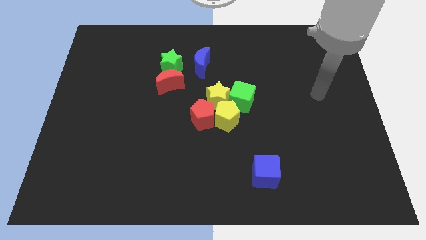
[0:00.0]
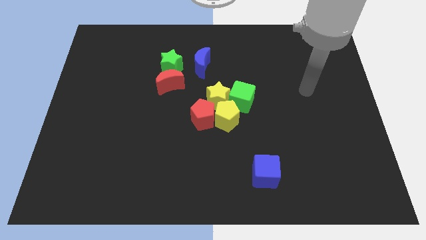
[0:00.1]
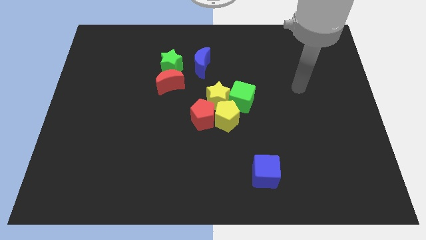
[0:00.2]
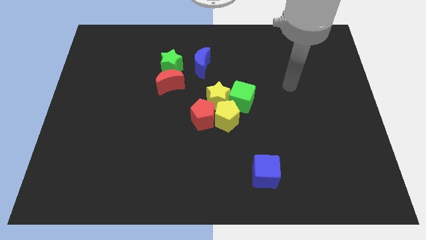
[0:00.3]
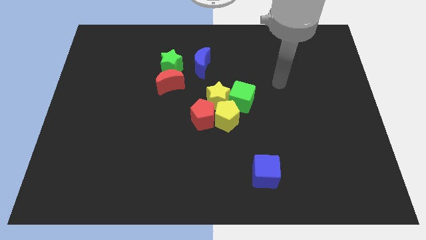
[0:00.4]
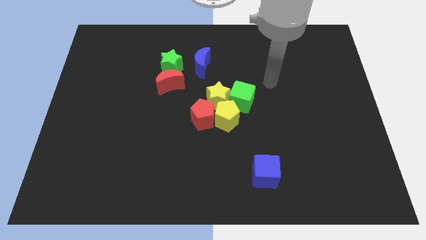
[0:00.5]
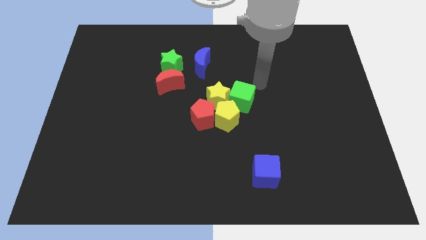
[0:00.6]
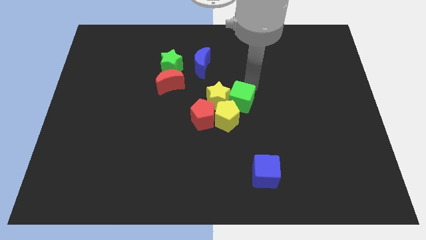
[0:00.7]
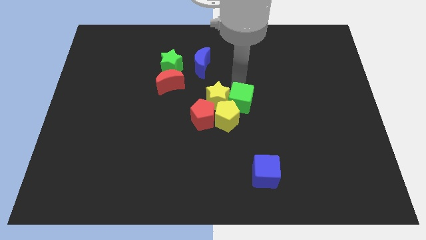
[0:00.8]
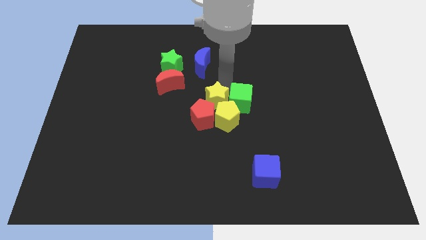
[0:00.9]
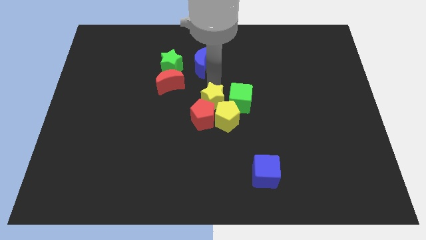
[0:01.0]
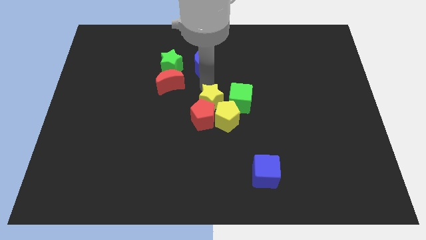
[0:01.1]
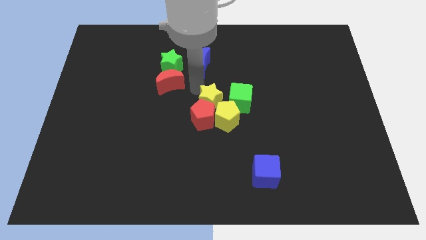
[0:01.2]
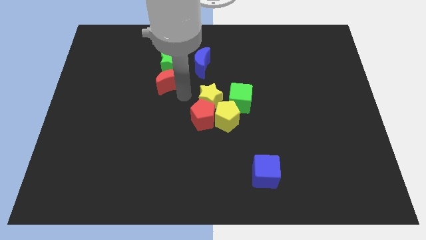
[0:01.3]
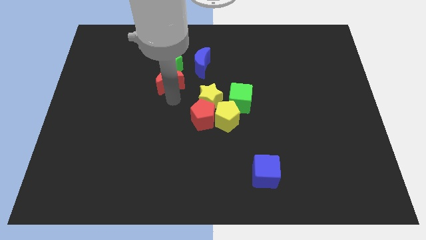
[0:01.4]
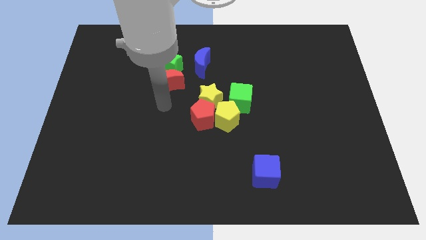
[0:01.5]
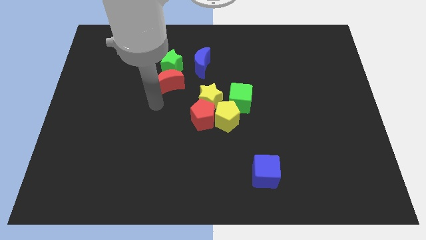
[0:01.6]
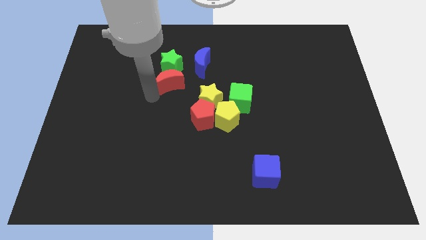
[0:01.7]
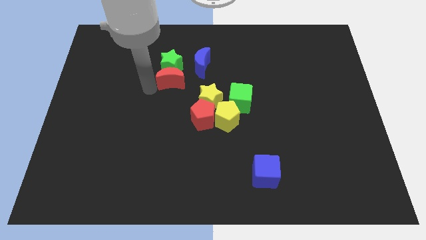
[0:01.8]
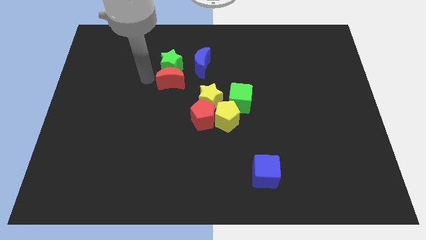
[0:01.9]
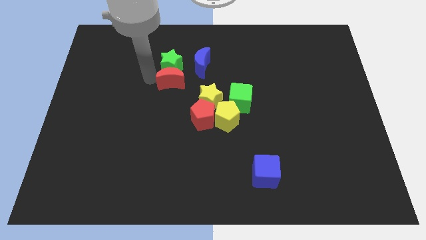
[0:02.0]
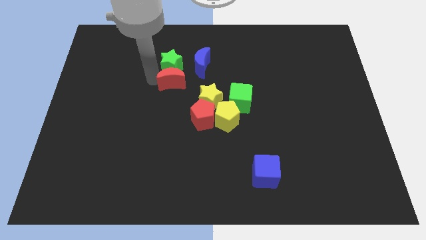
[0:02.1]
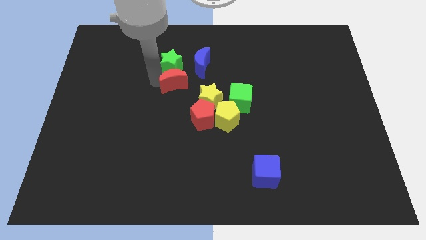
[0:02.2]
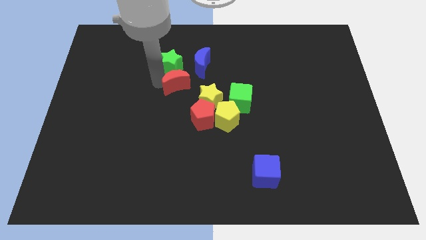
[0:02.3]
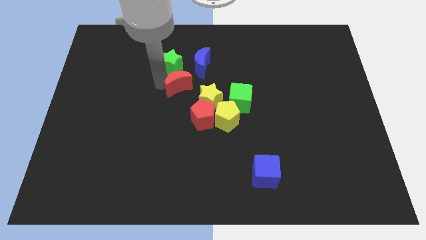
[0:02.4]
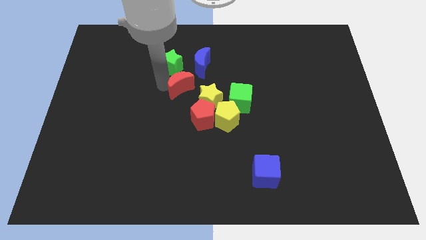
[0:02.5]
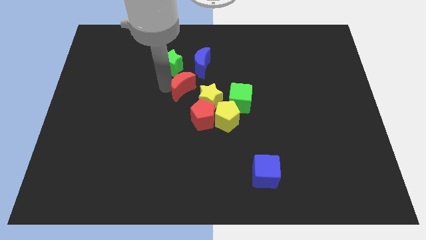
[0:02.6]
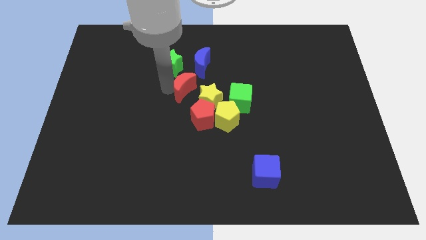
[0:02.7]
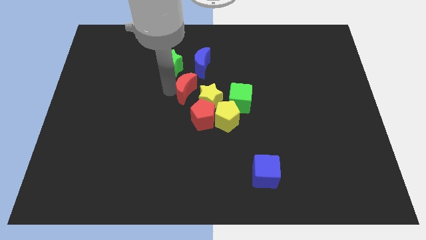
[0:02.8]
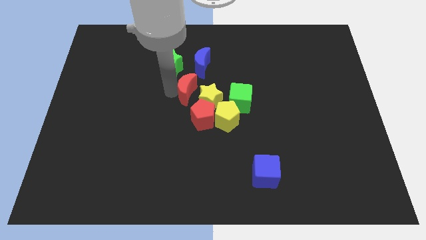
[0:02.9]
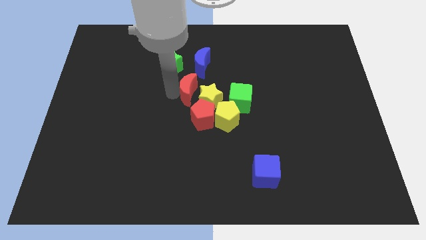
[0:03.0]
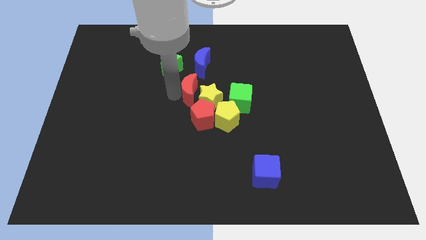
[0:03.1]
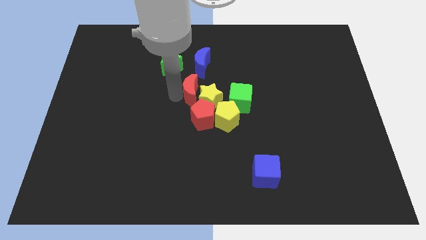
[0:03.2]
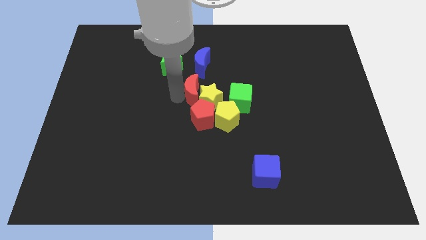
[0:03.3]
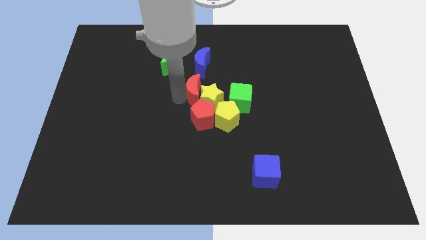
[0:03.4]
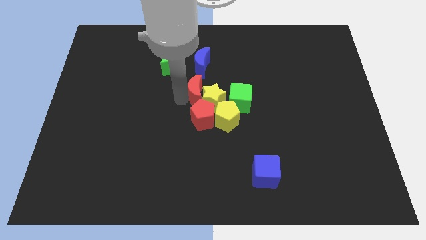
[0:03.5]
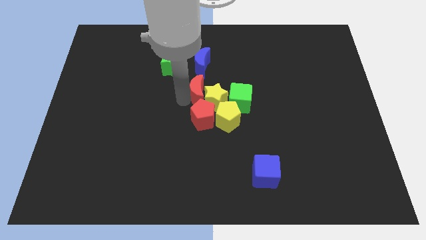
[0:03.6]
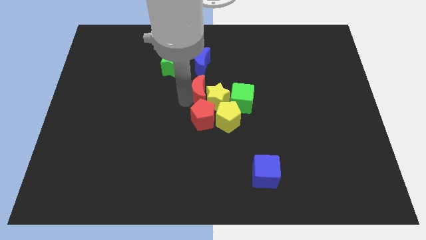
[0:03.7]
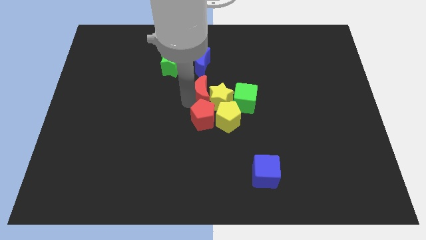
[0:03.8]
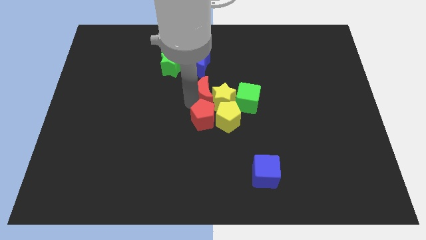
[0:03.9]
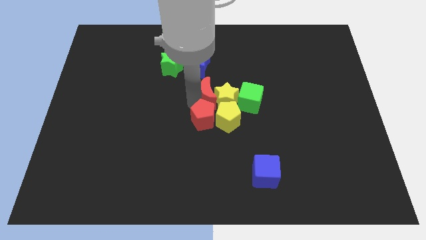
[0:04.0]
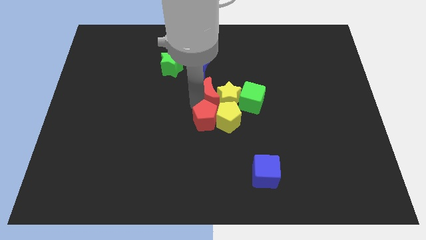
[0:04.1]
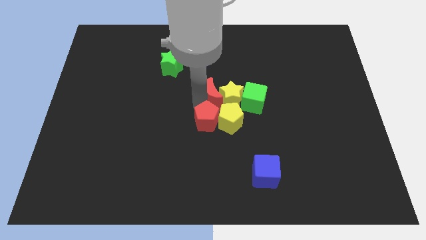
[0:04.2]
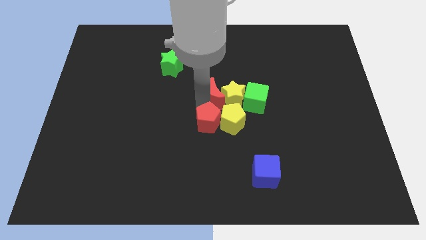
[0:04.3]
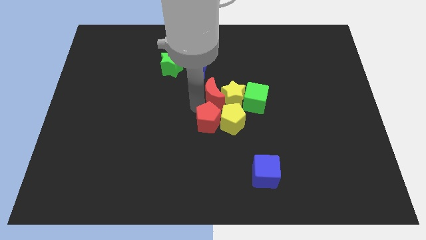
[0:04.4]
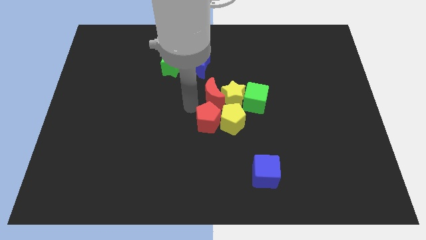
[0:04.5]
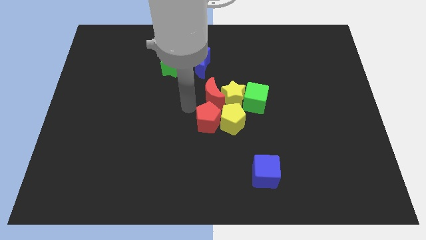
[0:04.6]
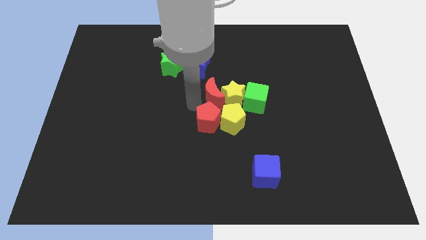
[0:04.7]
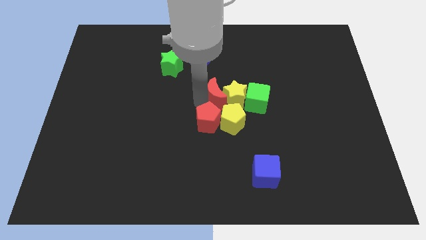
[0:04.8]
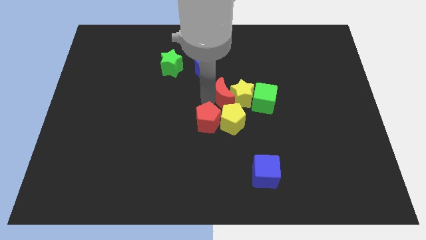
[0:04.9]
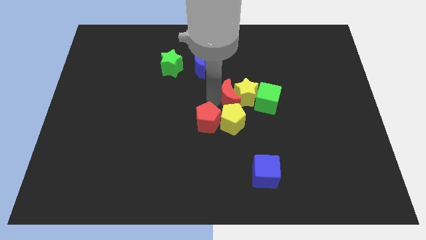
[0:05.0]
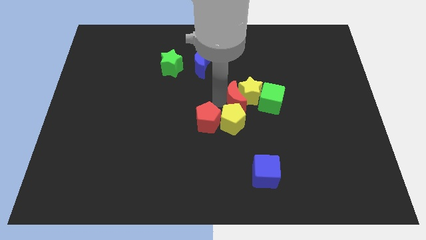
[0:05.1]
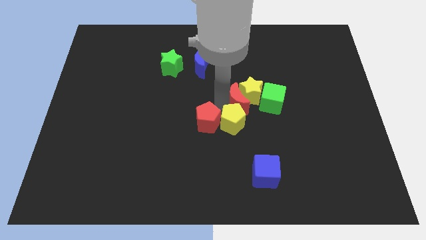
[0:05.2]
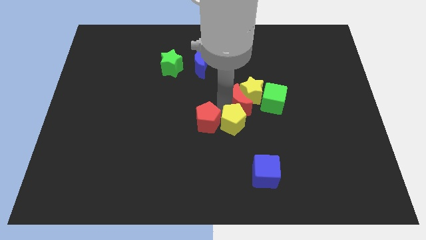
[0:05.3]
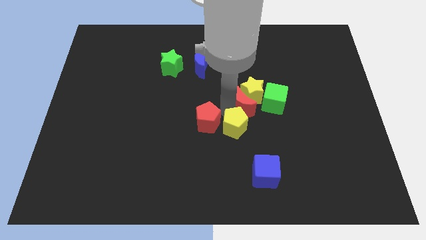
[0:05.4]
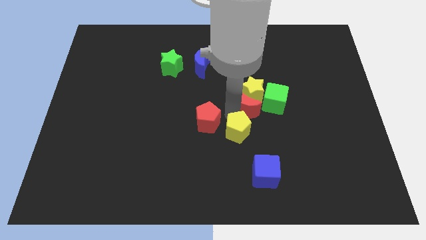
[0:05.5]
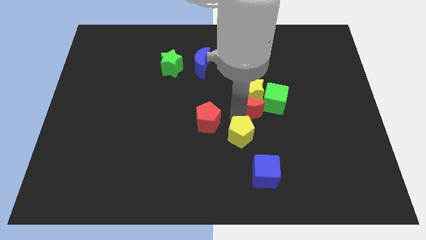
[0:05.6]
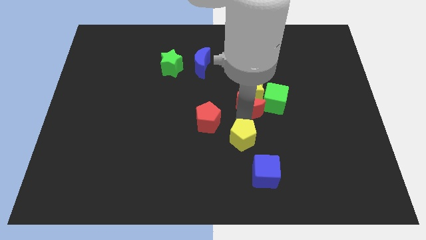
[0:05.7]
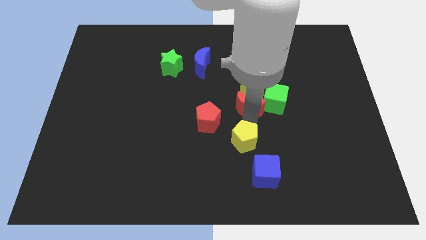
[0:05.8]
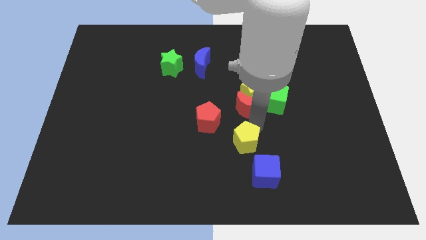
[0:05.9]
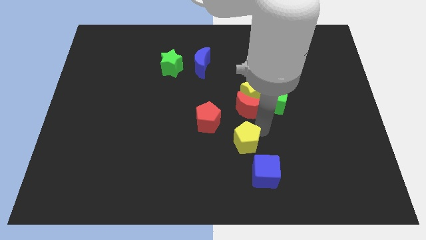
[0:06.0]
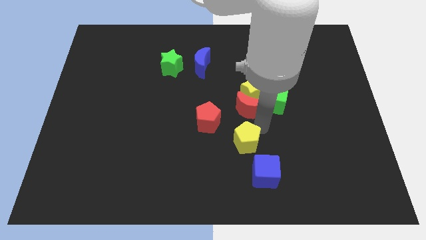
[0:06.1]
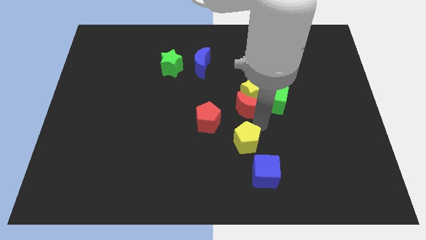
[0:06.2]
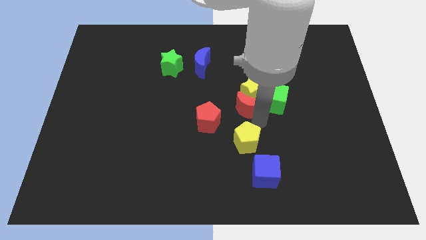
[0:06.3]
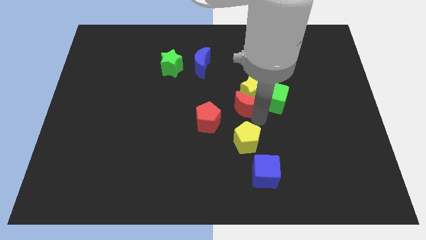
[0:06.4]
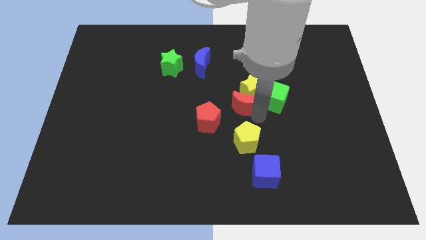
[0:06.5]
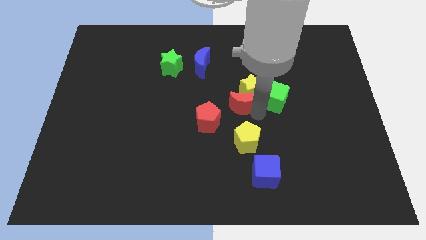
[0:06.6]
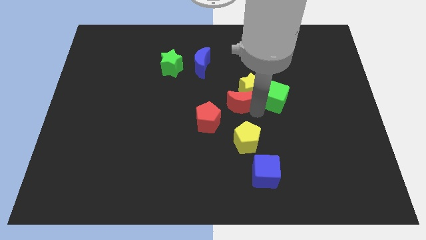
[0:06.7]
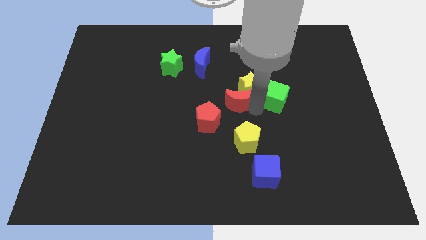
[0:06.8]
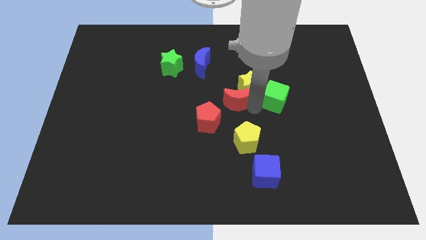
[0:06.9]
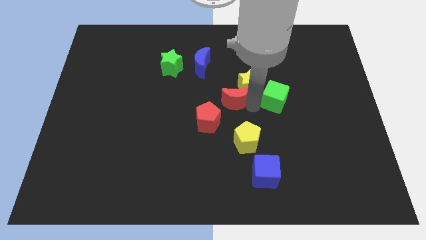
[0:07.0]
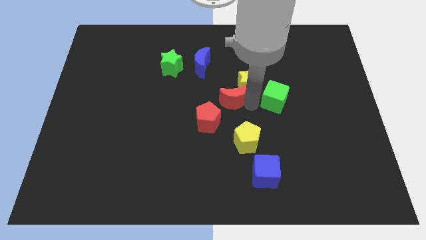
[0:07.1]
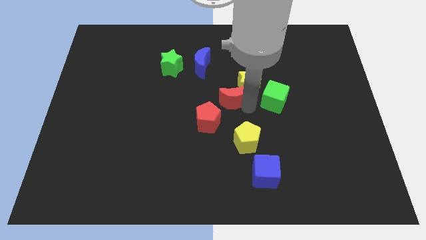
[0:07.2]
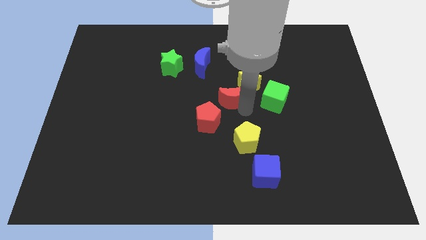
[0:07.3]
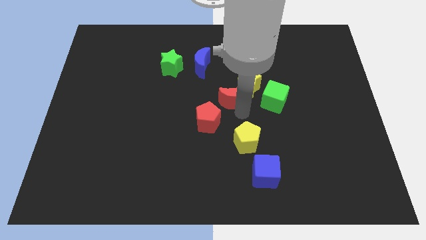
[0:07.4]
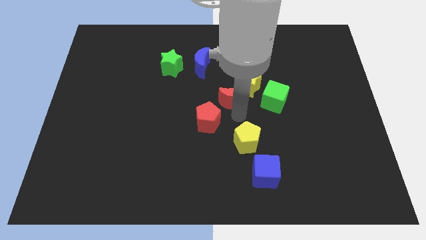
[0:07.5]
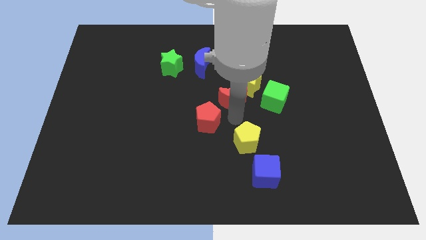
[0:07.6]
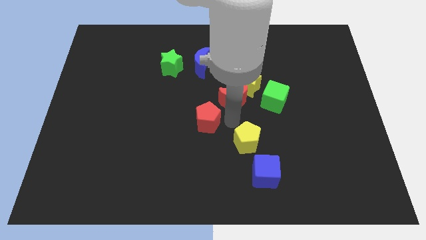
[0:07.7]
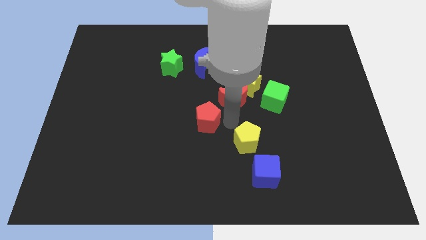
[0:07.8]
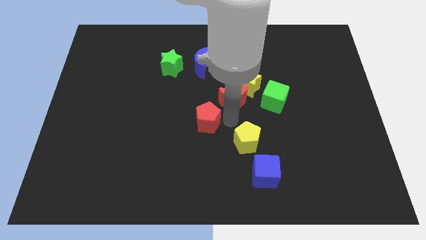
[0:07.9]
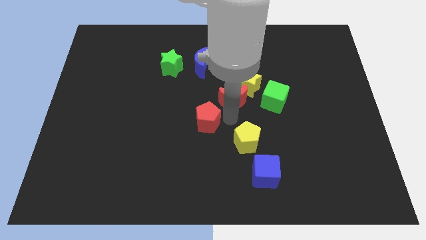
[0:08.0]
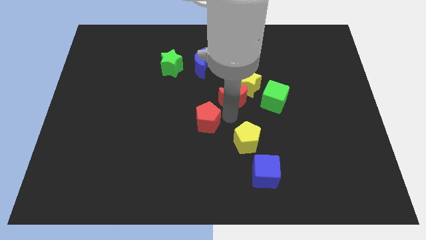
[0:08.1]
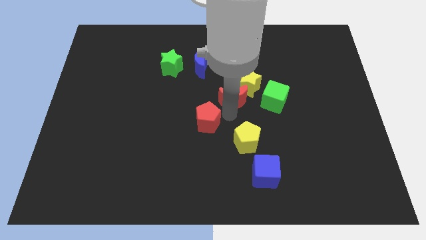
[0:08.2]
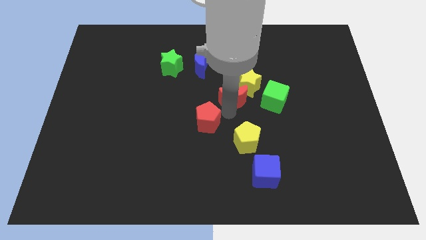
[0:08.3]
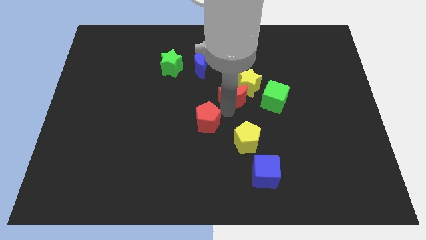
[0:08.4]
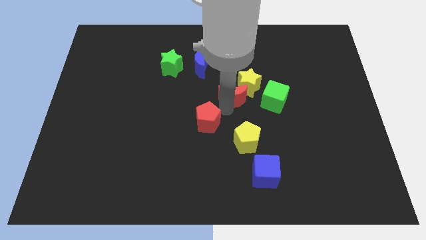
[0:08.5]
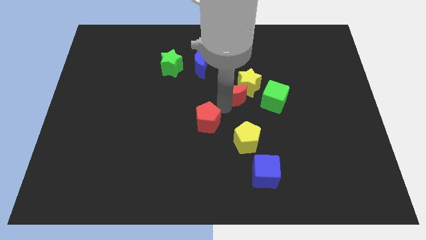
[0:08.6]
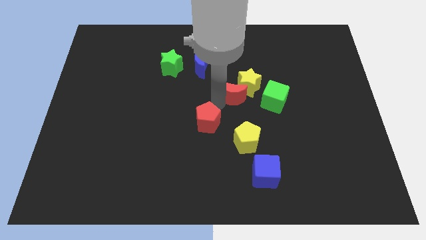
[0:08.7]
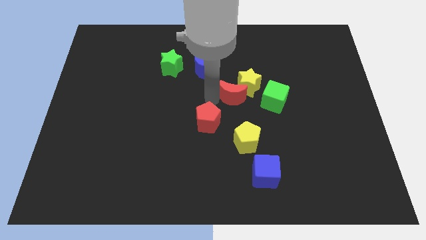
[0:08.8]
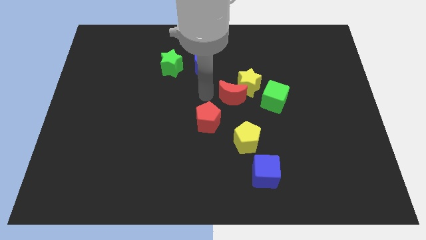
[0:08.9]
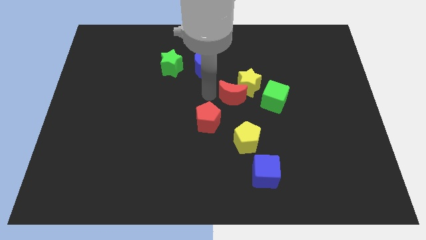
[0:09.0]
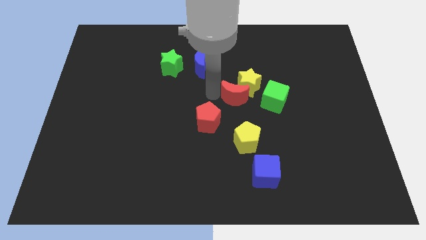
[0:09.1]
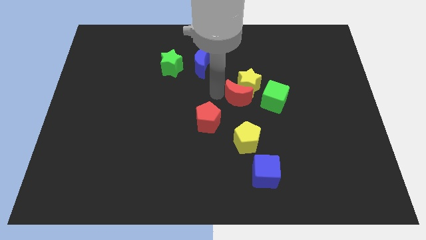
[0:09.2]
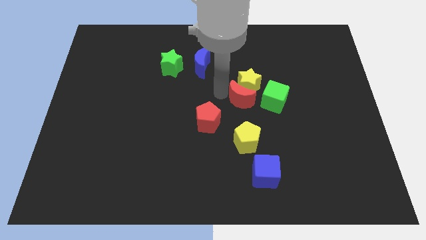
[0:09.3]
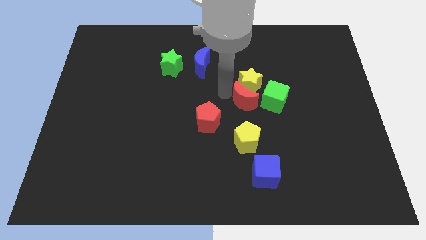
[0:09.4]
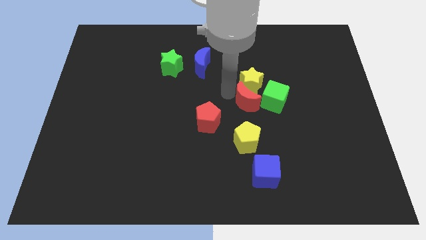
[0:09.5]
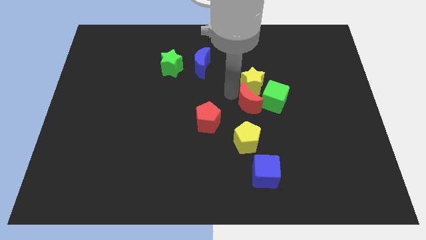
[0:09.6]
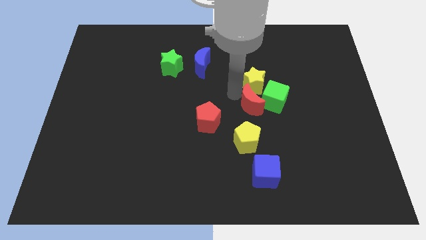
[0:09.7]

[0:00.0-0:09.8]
put the red moon to the green cube
